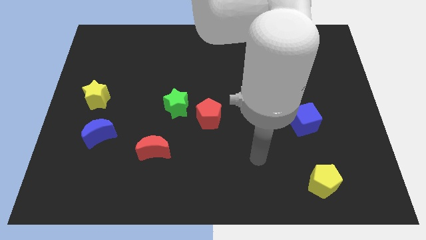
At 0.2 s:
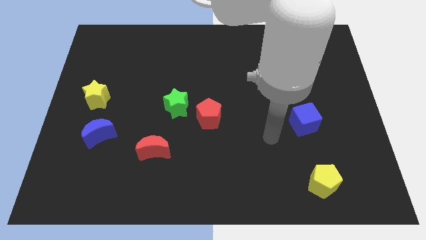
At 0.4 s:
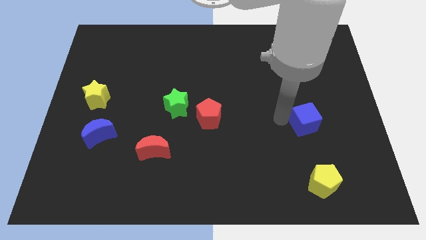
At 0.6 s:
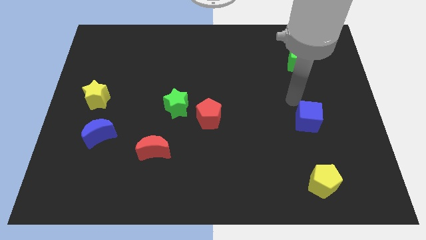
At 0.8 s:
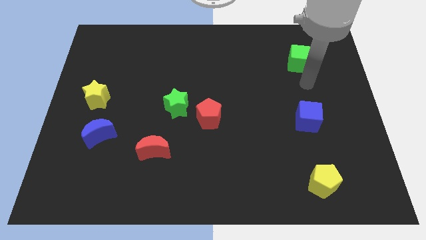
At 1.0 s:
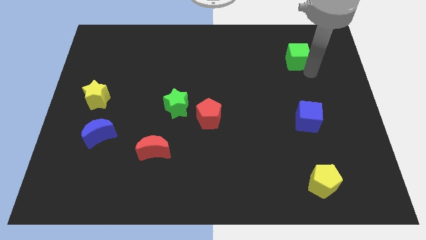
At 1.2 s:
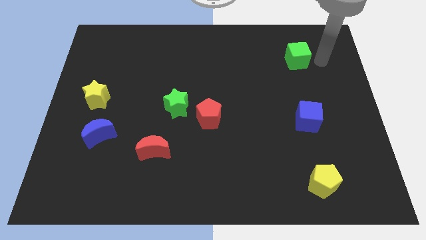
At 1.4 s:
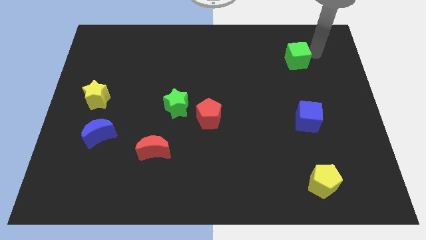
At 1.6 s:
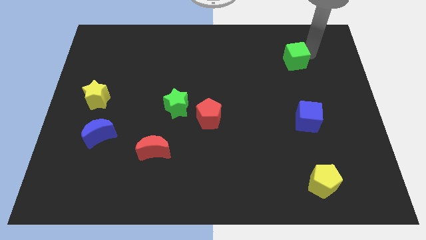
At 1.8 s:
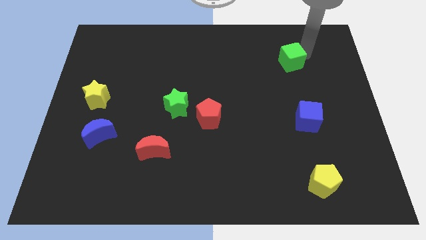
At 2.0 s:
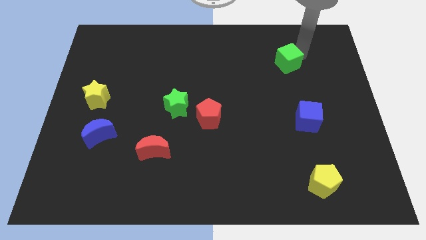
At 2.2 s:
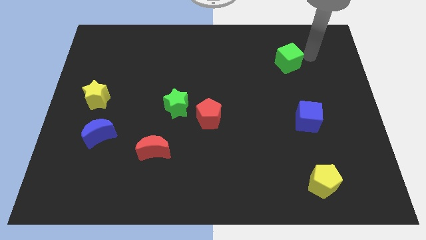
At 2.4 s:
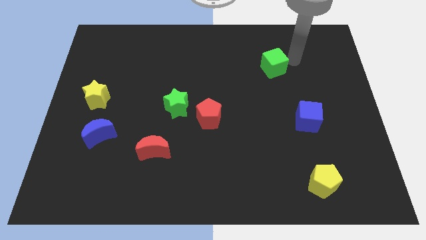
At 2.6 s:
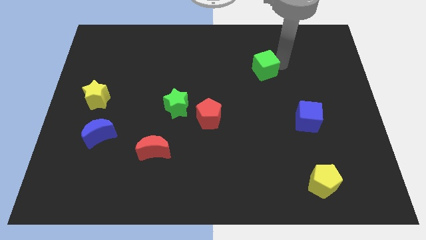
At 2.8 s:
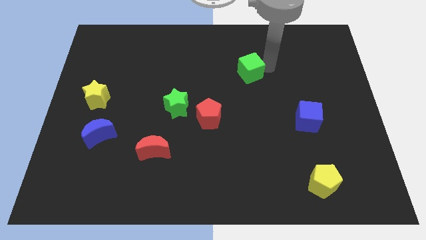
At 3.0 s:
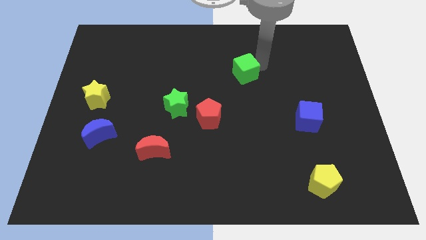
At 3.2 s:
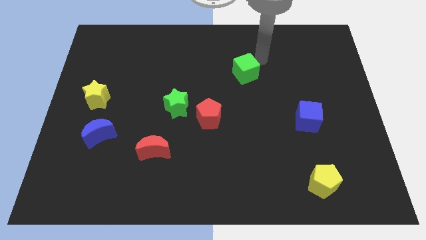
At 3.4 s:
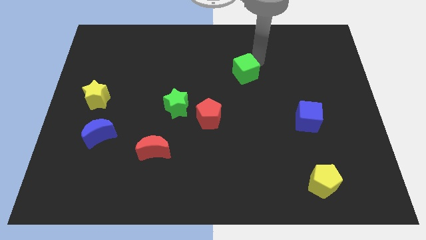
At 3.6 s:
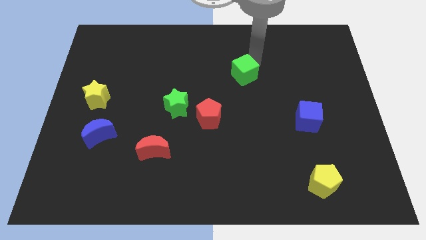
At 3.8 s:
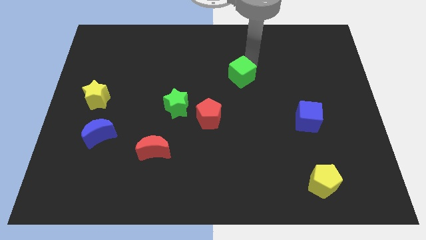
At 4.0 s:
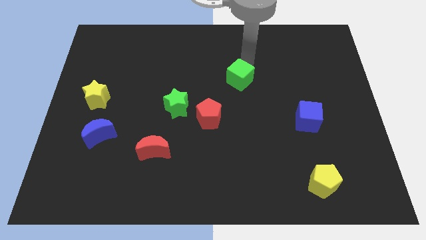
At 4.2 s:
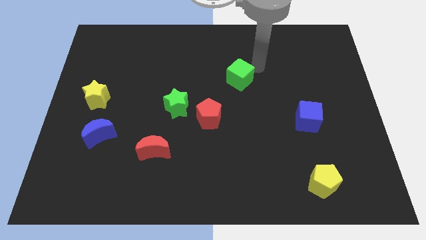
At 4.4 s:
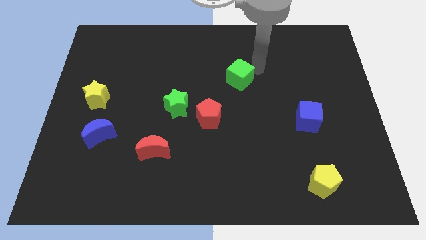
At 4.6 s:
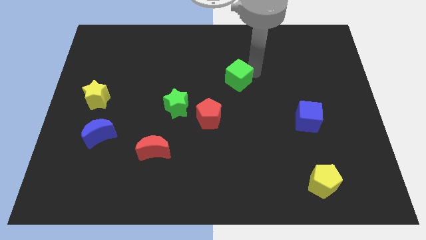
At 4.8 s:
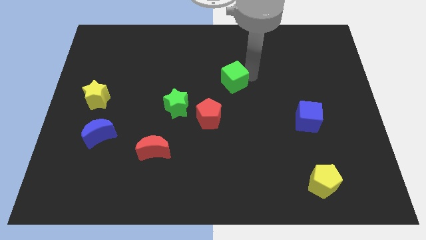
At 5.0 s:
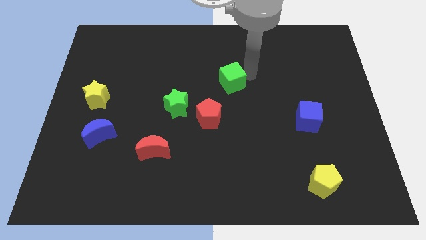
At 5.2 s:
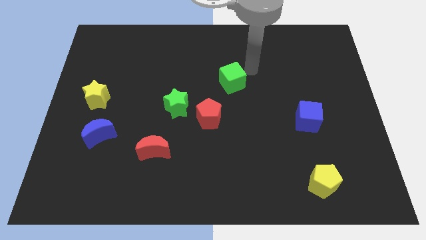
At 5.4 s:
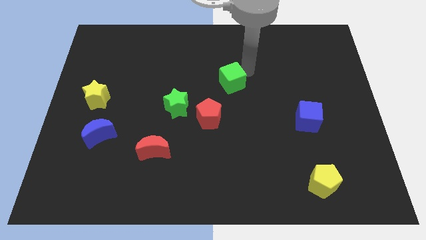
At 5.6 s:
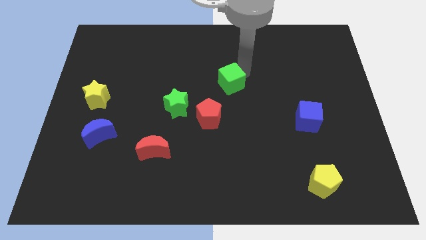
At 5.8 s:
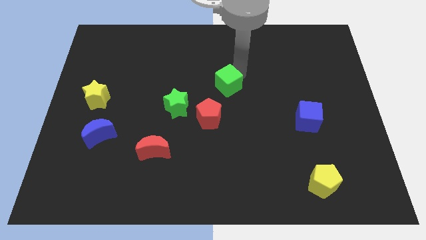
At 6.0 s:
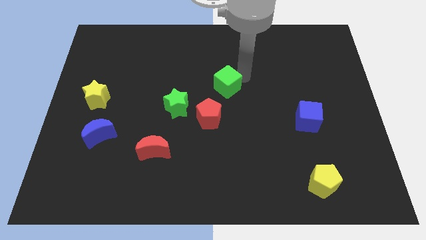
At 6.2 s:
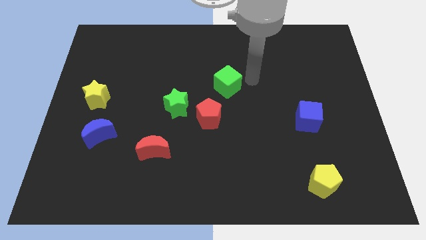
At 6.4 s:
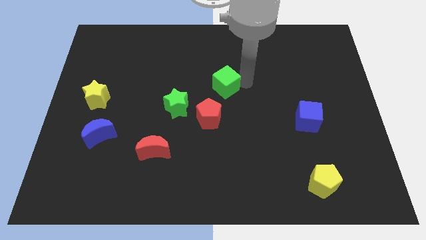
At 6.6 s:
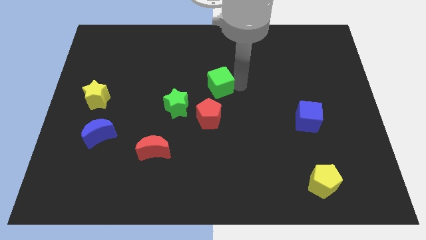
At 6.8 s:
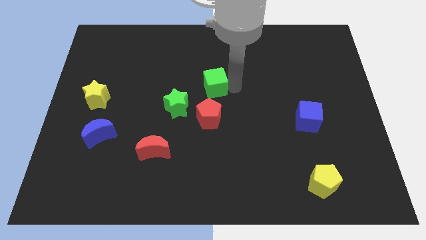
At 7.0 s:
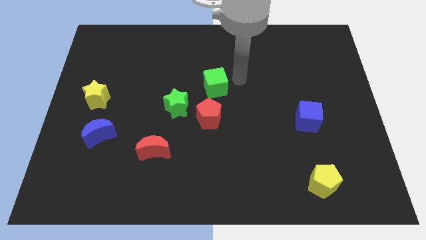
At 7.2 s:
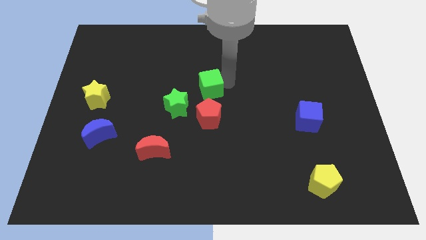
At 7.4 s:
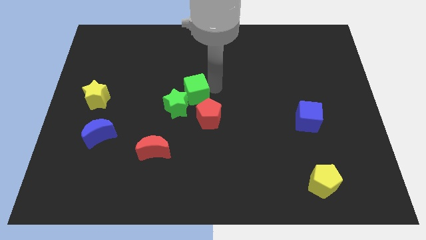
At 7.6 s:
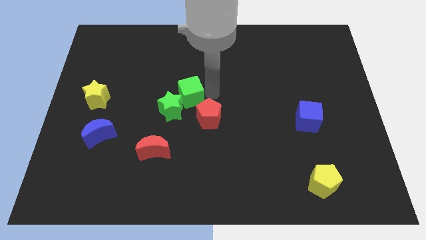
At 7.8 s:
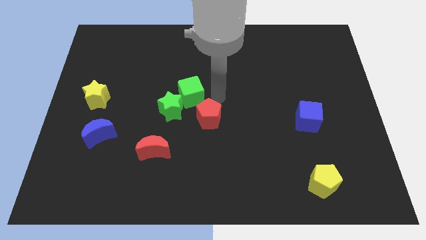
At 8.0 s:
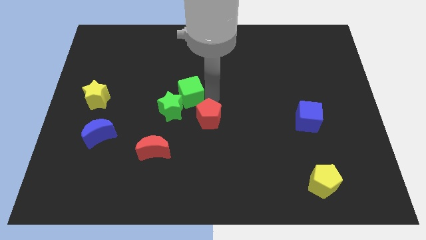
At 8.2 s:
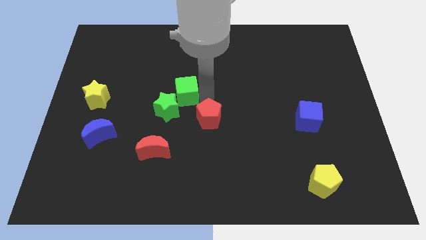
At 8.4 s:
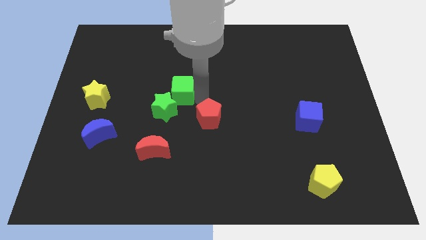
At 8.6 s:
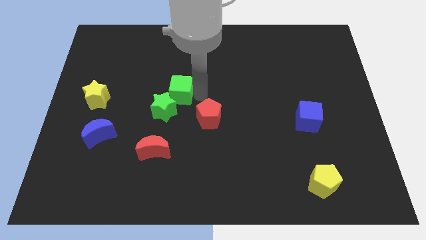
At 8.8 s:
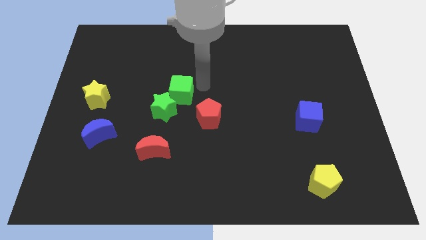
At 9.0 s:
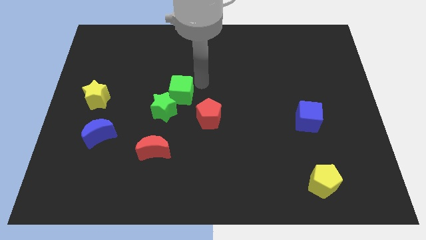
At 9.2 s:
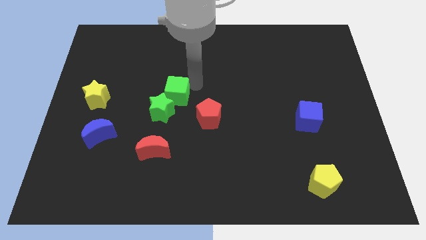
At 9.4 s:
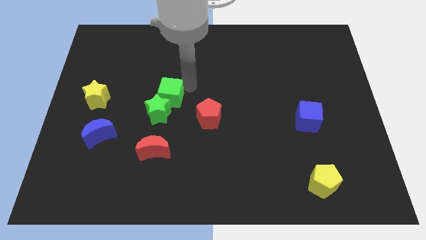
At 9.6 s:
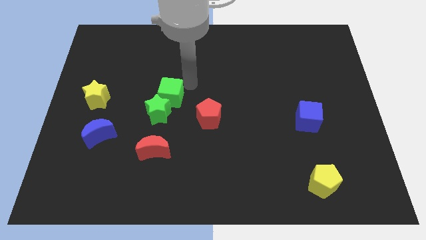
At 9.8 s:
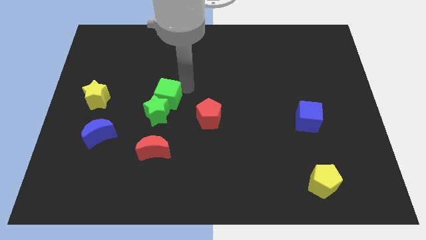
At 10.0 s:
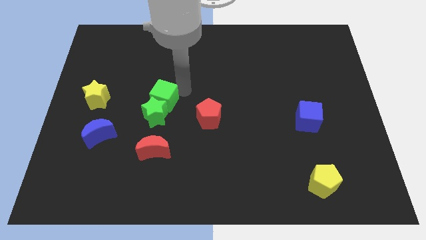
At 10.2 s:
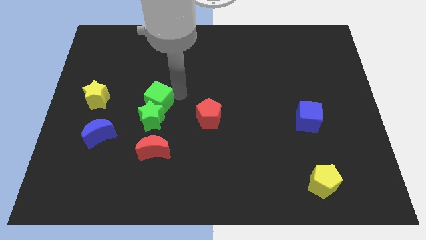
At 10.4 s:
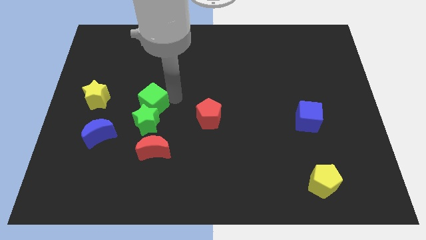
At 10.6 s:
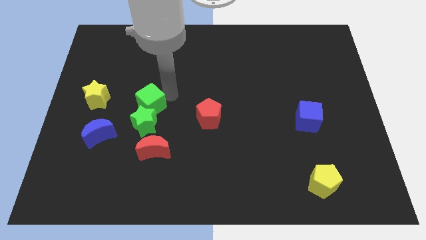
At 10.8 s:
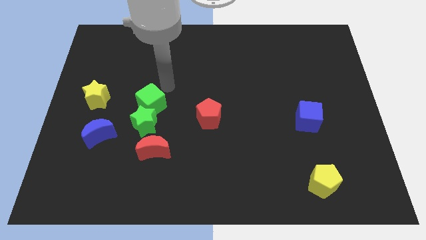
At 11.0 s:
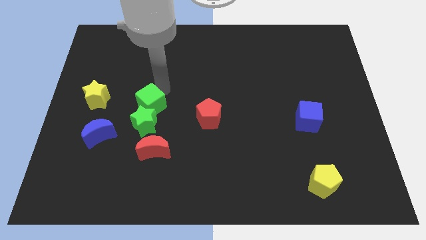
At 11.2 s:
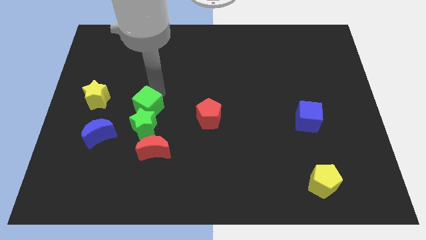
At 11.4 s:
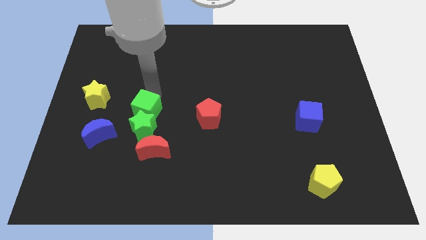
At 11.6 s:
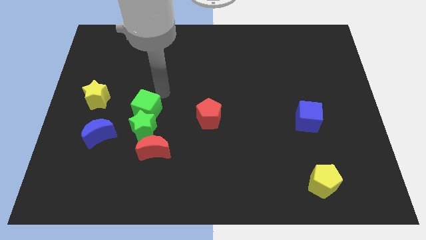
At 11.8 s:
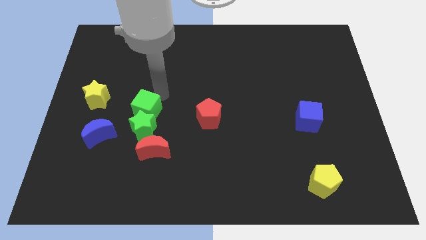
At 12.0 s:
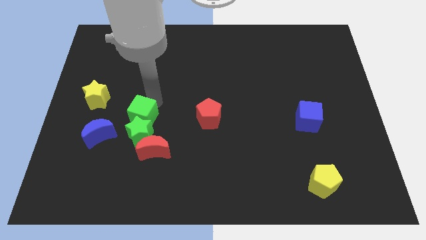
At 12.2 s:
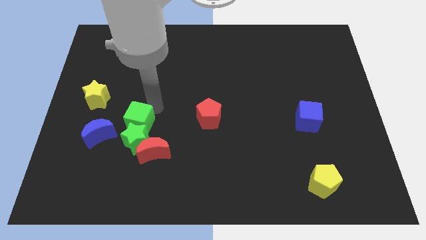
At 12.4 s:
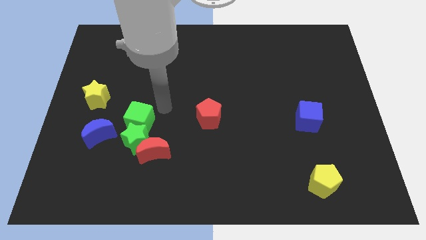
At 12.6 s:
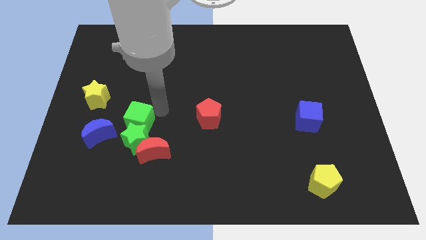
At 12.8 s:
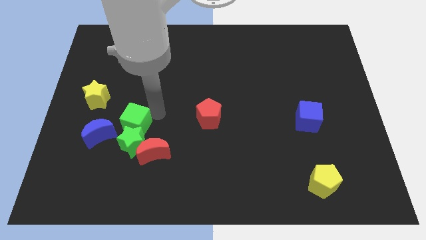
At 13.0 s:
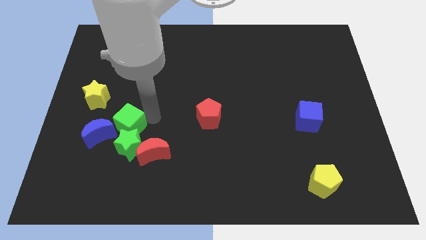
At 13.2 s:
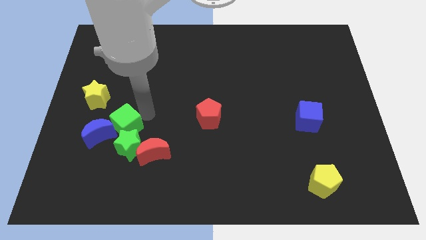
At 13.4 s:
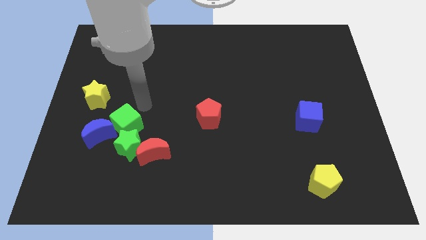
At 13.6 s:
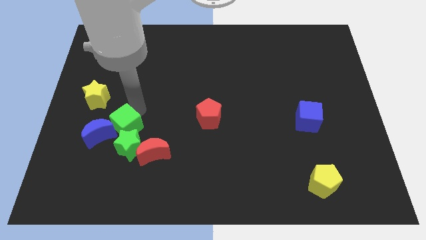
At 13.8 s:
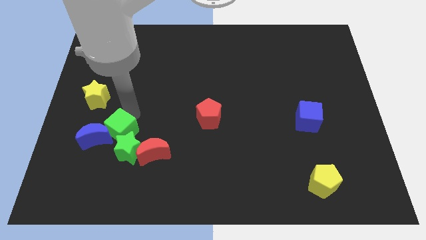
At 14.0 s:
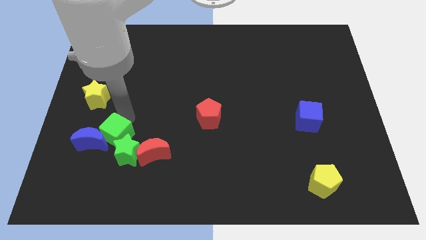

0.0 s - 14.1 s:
put the green cube just left of the red moon

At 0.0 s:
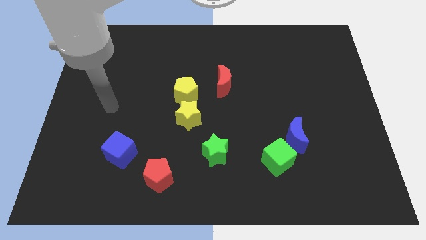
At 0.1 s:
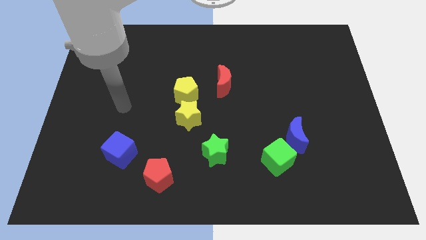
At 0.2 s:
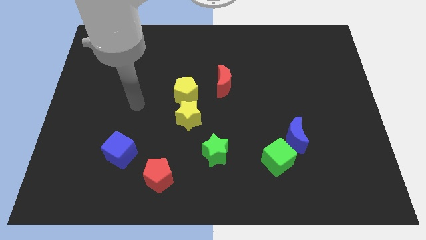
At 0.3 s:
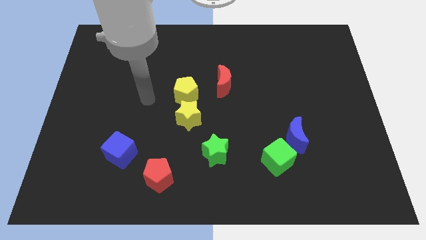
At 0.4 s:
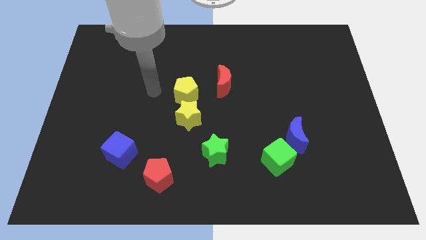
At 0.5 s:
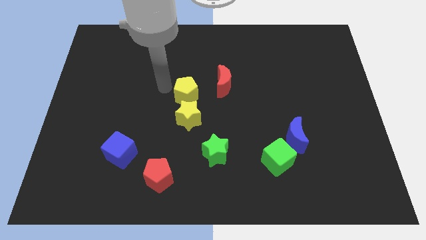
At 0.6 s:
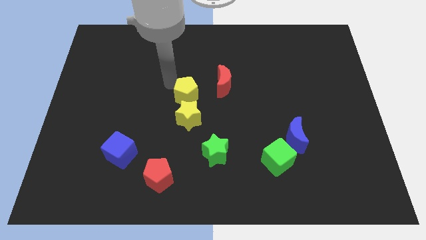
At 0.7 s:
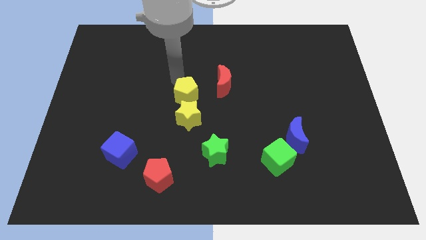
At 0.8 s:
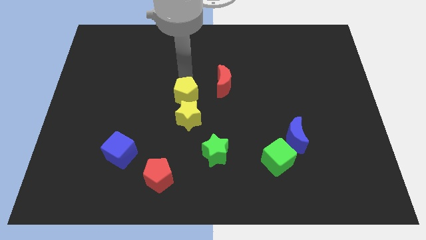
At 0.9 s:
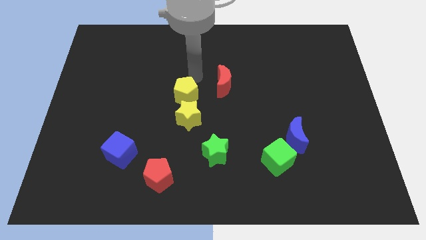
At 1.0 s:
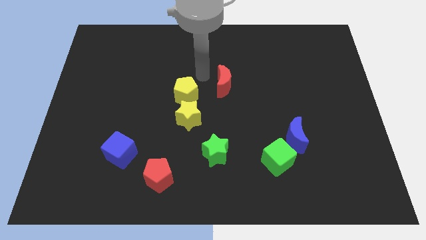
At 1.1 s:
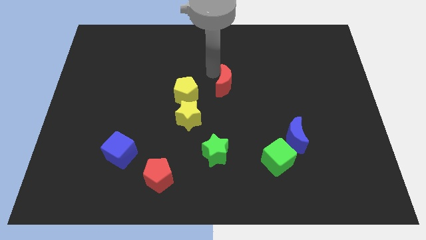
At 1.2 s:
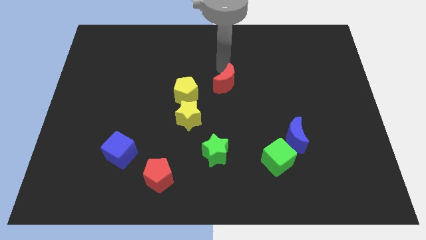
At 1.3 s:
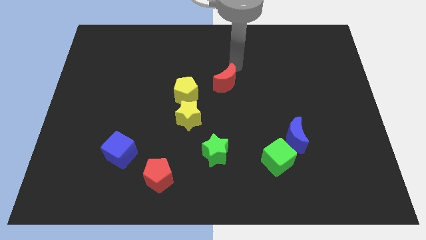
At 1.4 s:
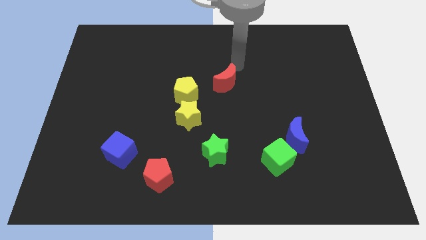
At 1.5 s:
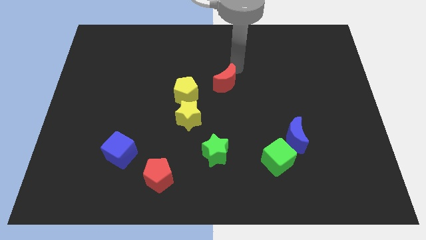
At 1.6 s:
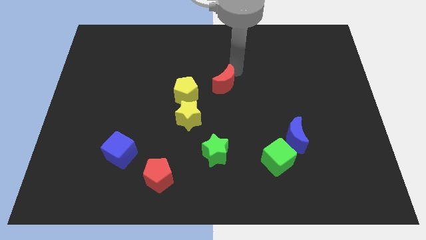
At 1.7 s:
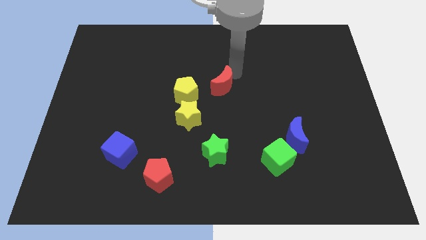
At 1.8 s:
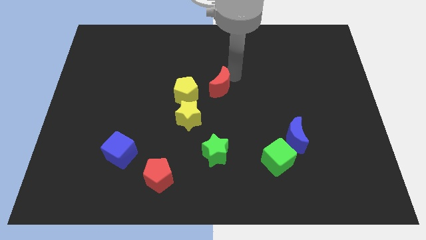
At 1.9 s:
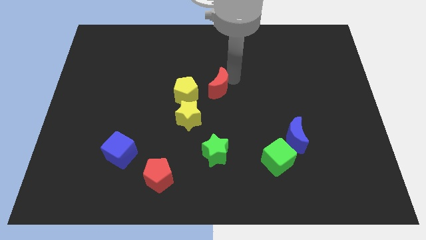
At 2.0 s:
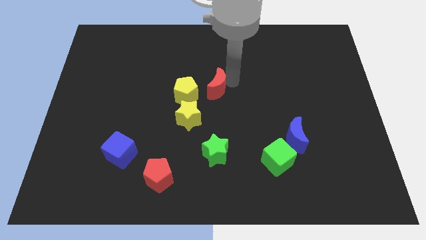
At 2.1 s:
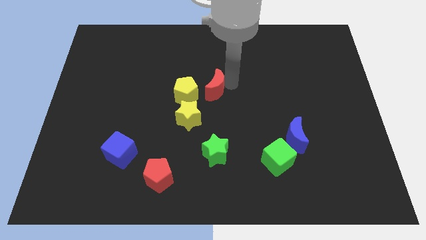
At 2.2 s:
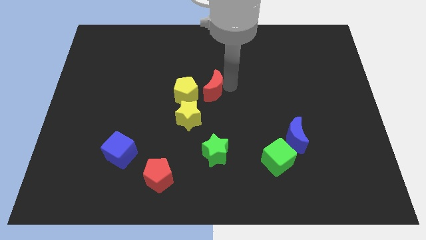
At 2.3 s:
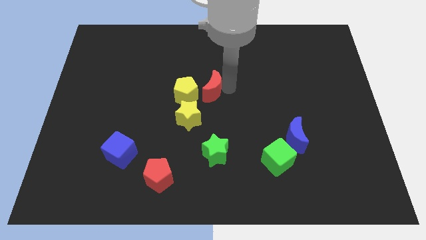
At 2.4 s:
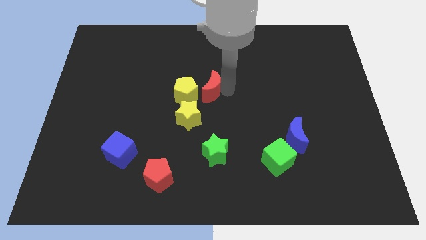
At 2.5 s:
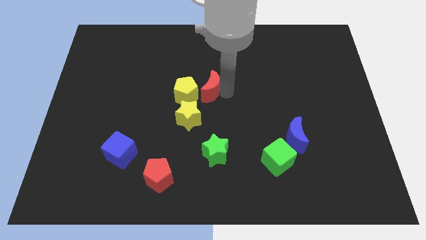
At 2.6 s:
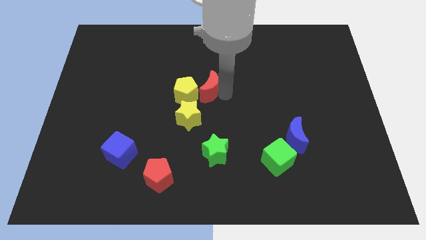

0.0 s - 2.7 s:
slide the red moon to the bottom right of the yellow pentagon
